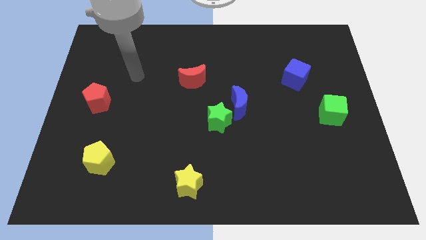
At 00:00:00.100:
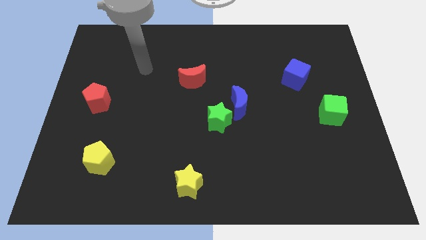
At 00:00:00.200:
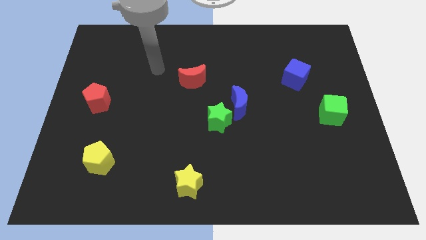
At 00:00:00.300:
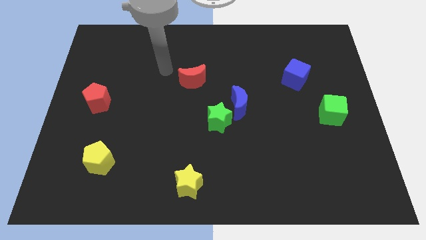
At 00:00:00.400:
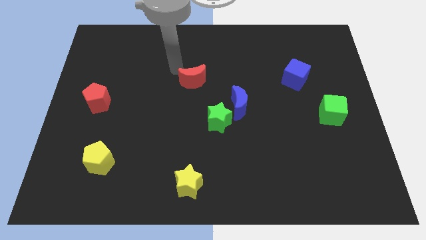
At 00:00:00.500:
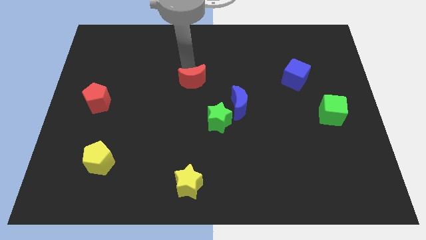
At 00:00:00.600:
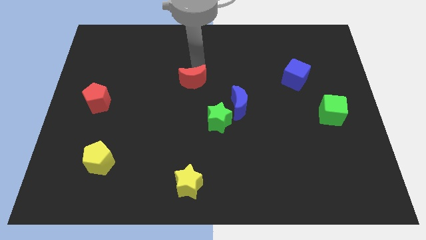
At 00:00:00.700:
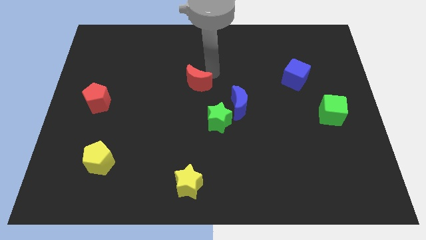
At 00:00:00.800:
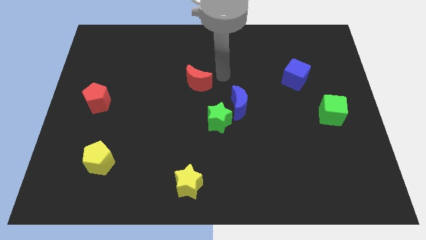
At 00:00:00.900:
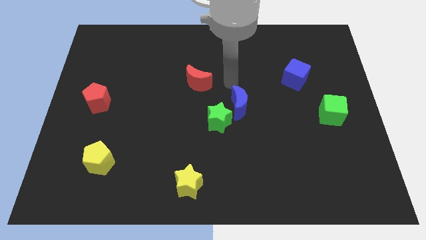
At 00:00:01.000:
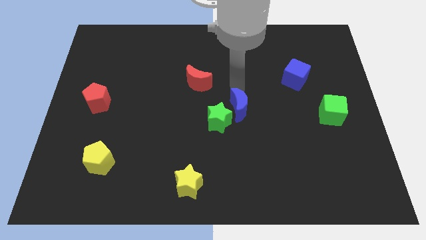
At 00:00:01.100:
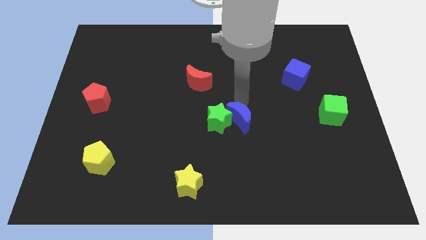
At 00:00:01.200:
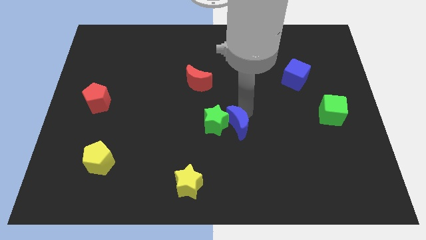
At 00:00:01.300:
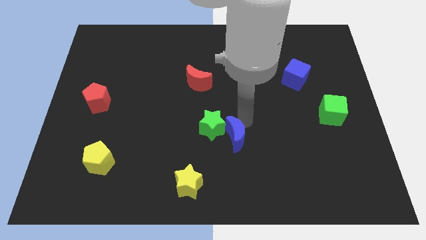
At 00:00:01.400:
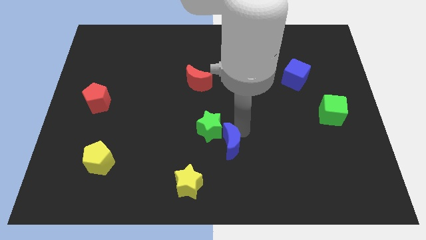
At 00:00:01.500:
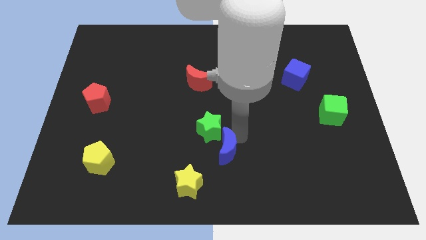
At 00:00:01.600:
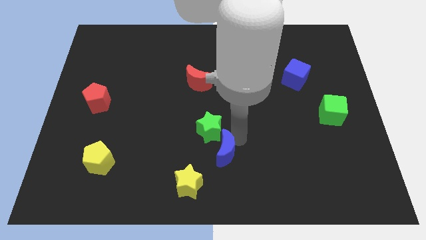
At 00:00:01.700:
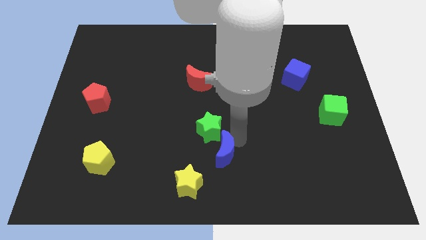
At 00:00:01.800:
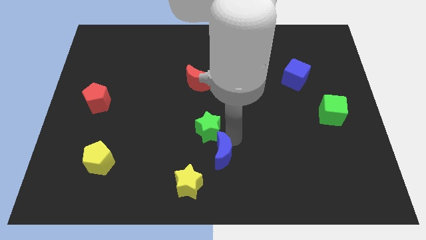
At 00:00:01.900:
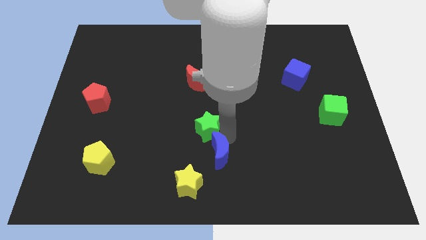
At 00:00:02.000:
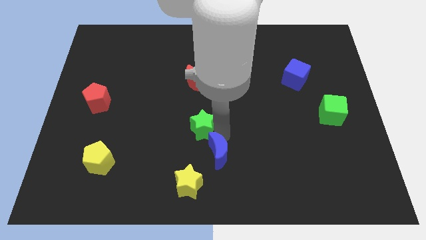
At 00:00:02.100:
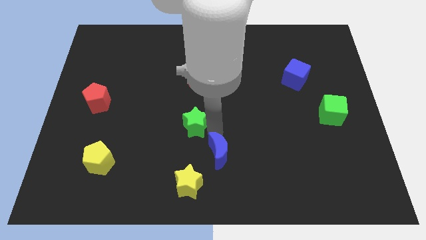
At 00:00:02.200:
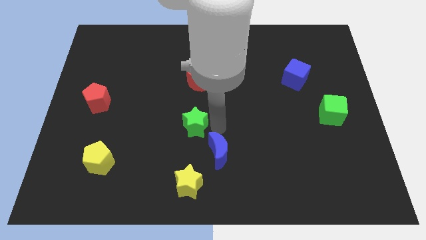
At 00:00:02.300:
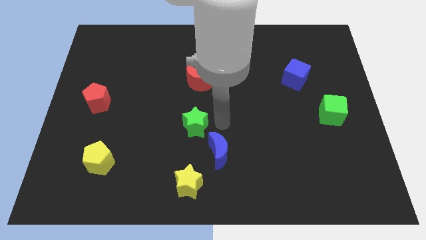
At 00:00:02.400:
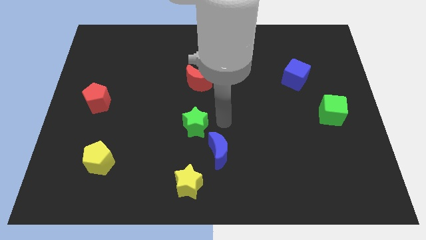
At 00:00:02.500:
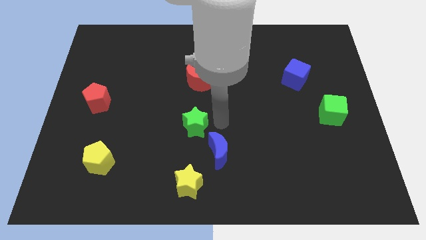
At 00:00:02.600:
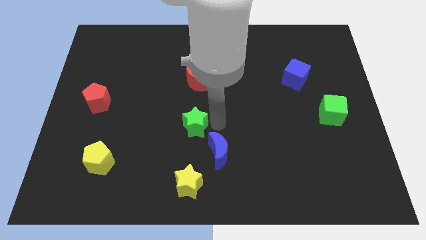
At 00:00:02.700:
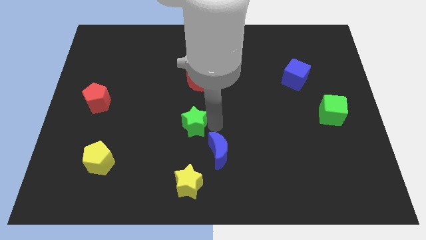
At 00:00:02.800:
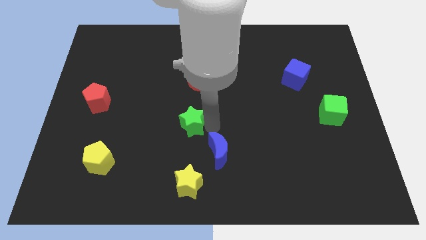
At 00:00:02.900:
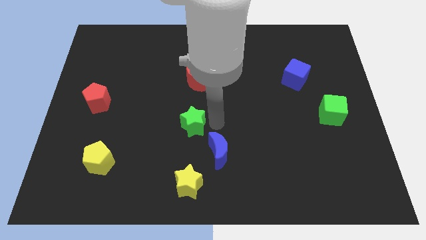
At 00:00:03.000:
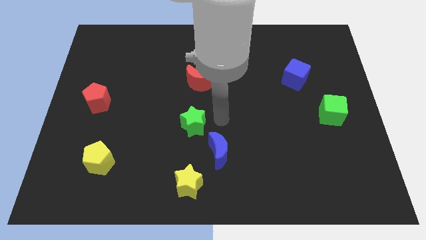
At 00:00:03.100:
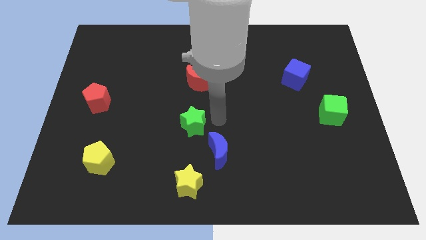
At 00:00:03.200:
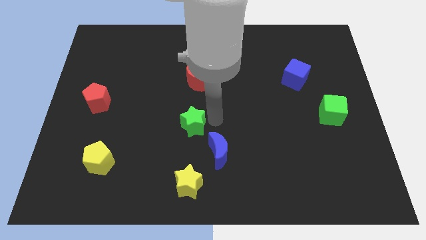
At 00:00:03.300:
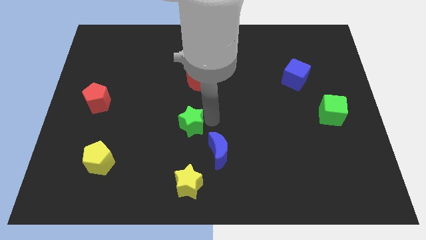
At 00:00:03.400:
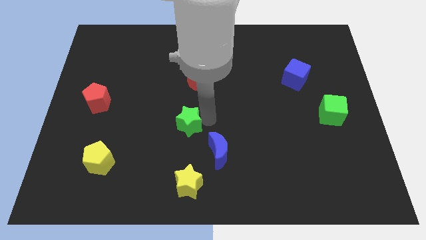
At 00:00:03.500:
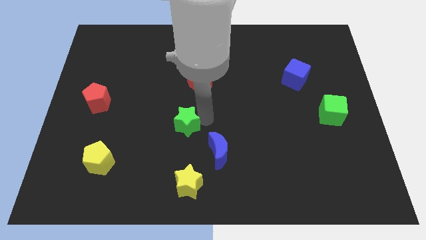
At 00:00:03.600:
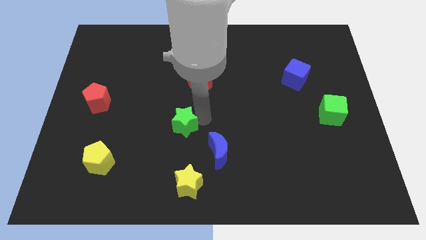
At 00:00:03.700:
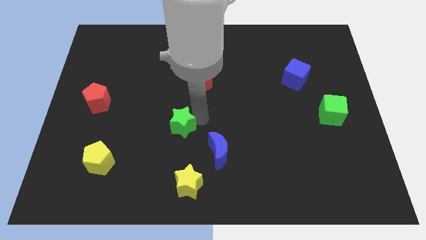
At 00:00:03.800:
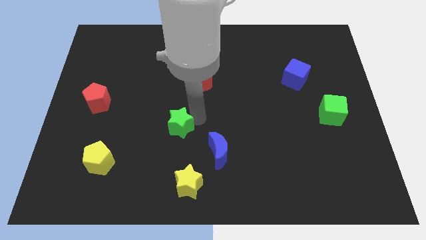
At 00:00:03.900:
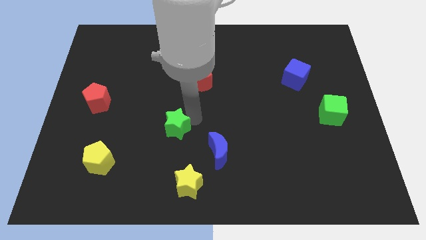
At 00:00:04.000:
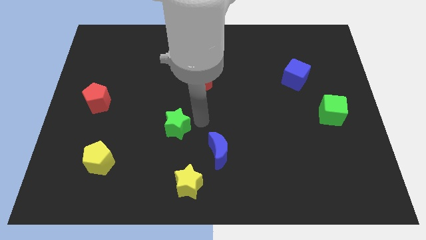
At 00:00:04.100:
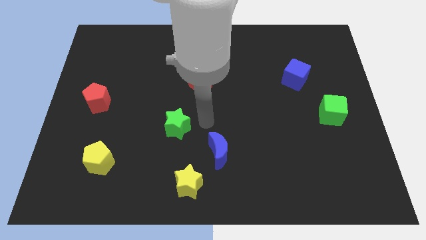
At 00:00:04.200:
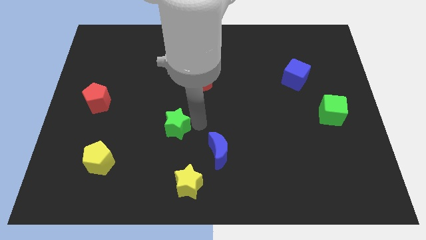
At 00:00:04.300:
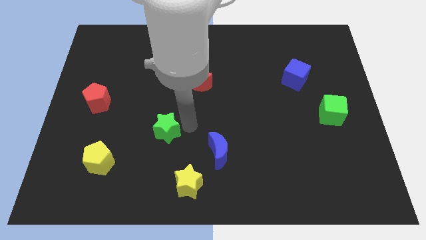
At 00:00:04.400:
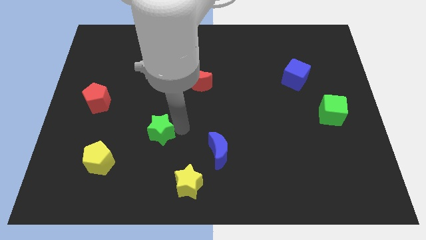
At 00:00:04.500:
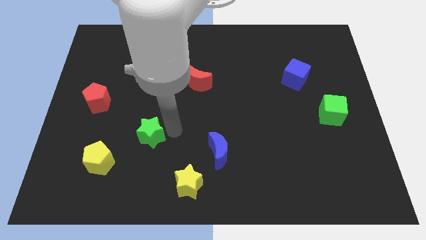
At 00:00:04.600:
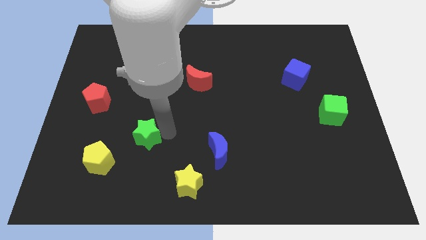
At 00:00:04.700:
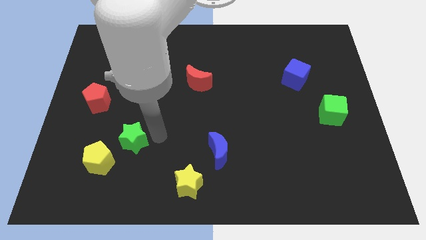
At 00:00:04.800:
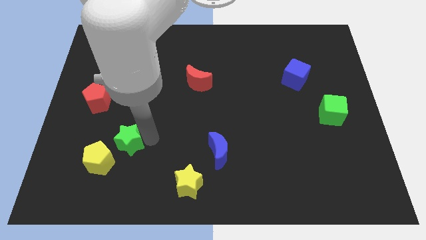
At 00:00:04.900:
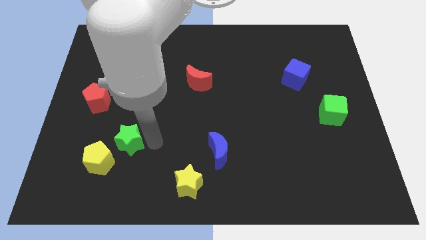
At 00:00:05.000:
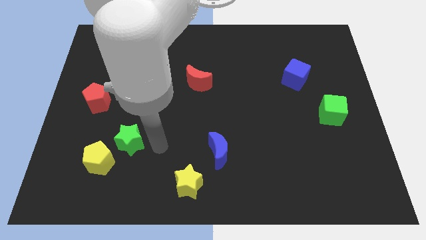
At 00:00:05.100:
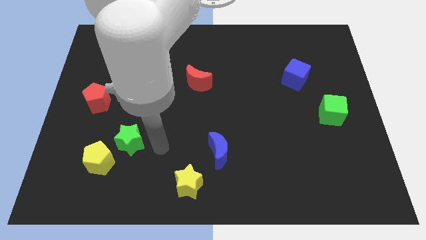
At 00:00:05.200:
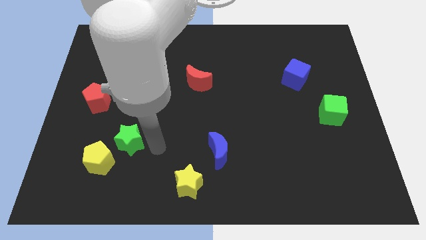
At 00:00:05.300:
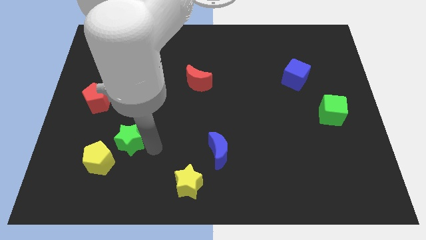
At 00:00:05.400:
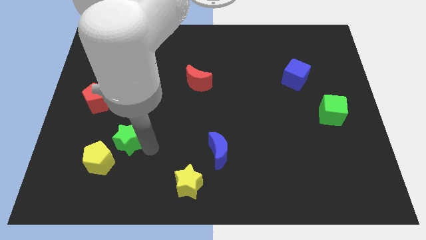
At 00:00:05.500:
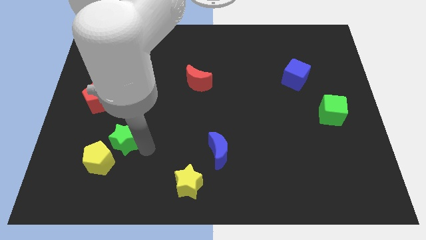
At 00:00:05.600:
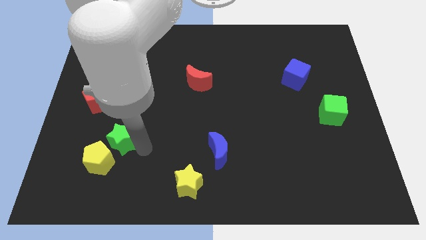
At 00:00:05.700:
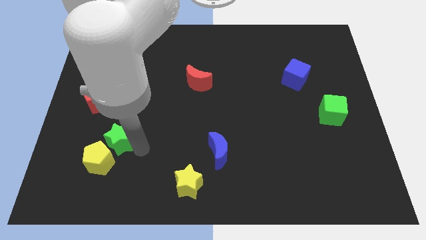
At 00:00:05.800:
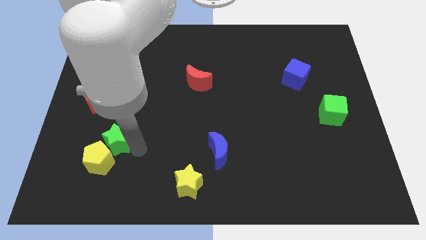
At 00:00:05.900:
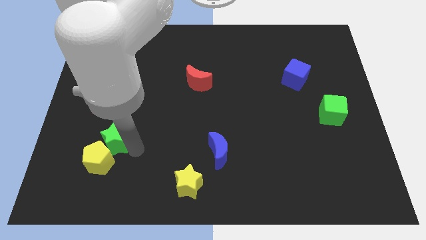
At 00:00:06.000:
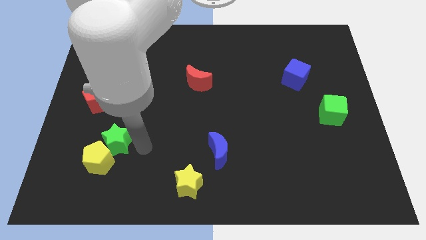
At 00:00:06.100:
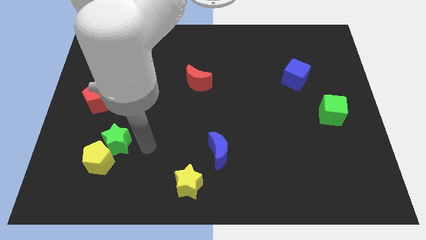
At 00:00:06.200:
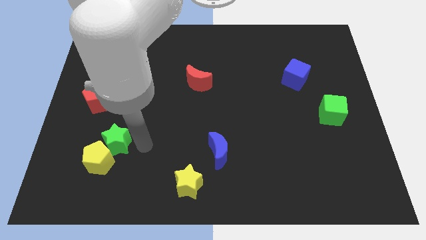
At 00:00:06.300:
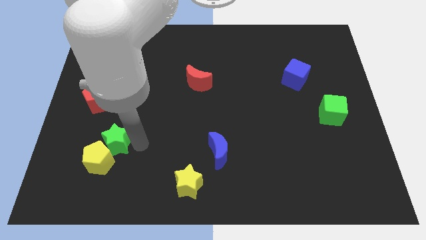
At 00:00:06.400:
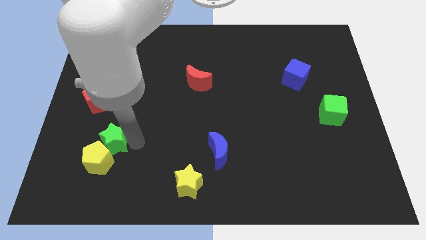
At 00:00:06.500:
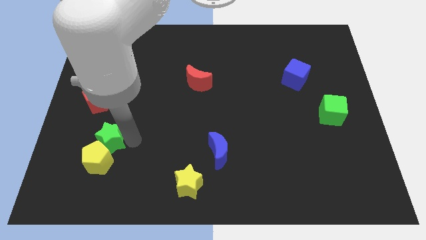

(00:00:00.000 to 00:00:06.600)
move the green star to the top left of the yellow pentagon

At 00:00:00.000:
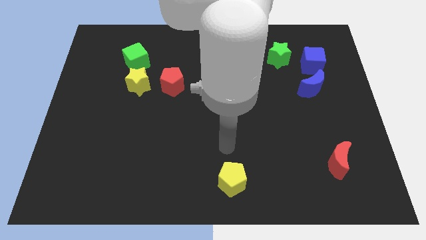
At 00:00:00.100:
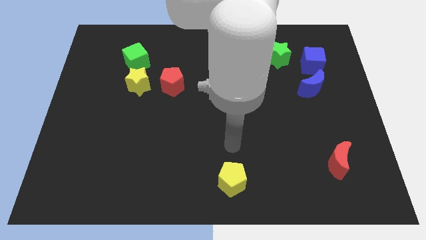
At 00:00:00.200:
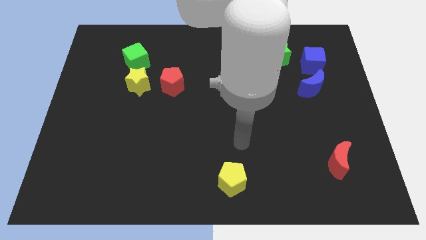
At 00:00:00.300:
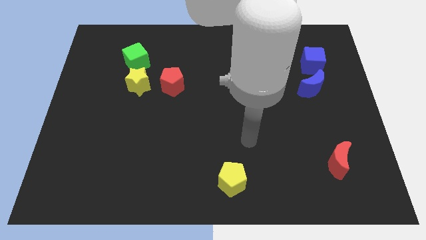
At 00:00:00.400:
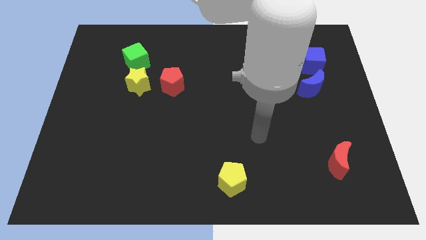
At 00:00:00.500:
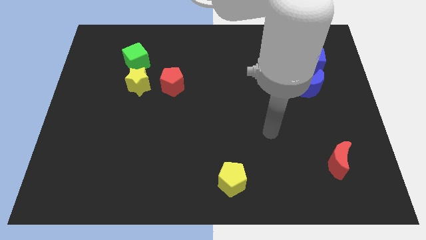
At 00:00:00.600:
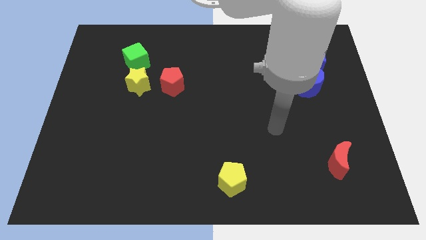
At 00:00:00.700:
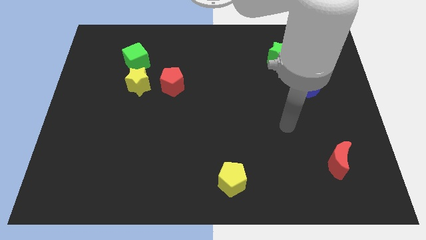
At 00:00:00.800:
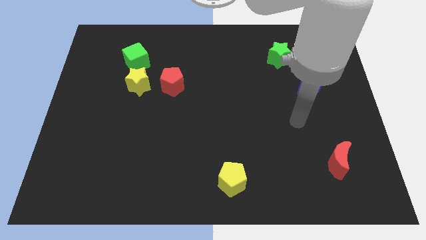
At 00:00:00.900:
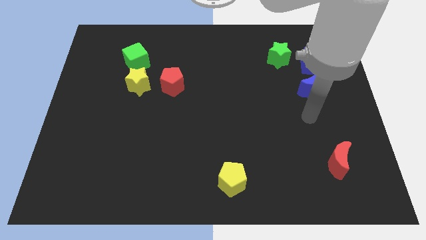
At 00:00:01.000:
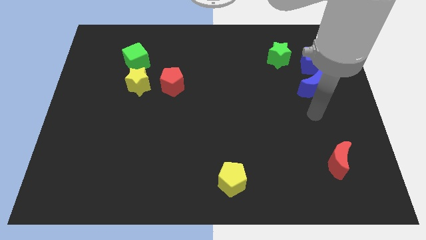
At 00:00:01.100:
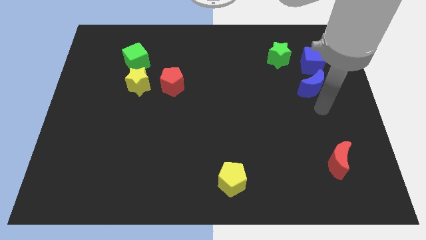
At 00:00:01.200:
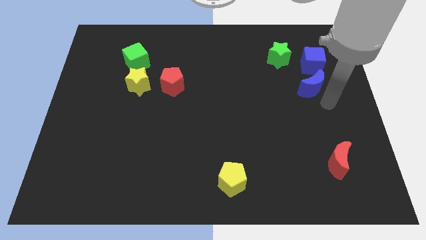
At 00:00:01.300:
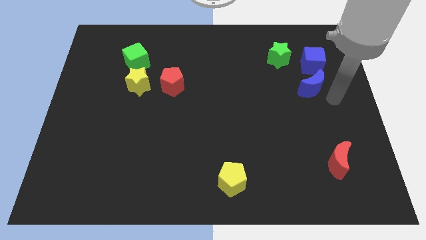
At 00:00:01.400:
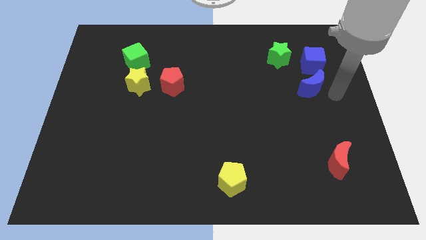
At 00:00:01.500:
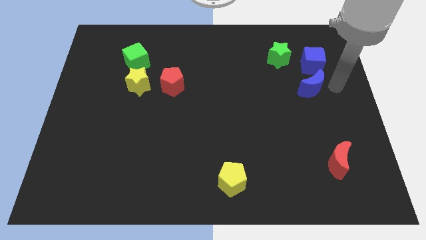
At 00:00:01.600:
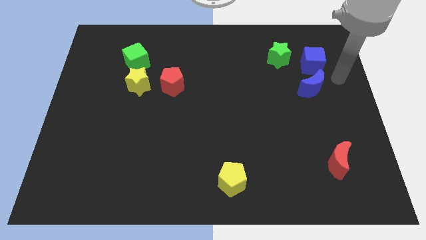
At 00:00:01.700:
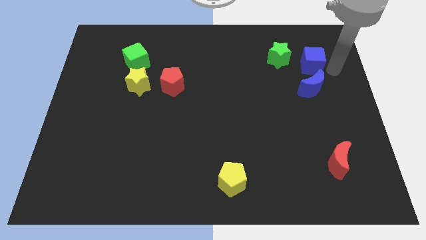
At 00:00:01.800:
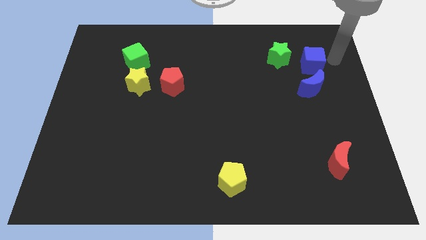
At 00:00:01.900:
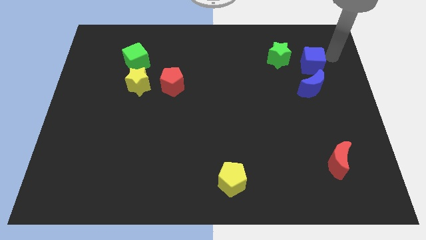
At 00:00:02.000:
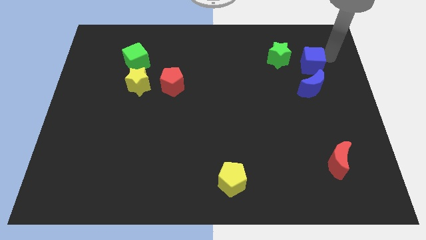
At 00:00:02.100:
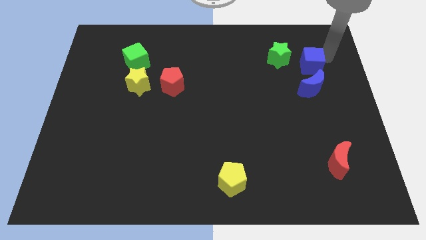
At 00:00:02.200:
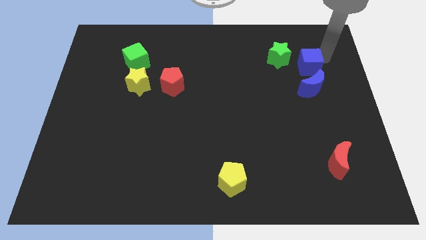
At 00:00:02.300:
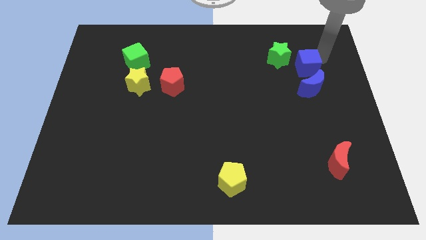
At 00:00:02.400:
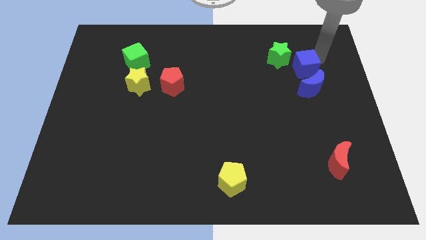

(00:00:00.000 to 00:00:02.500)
slide the blue cube to the top left side of the blue moon
